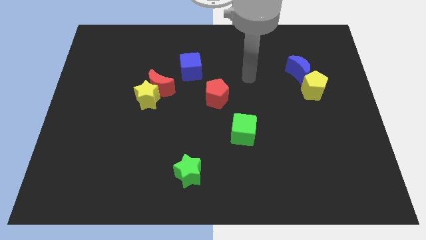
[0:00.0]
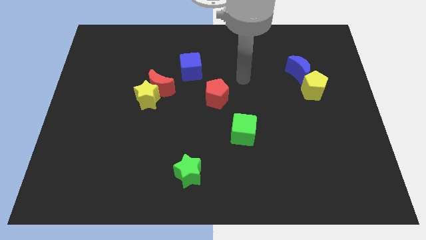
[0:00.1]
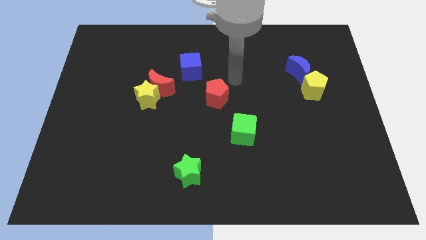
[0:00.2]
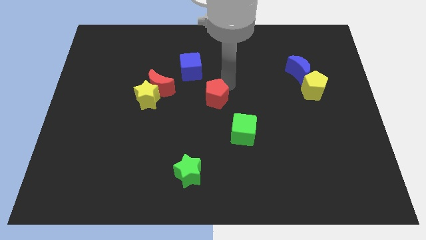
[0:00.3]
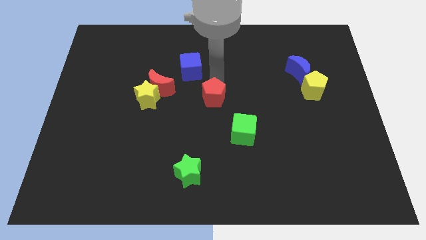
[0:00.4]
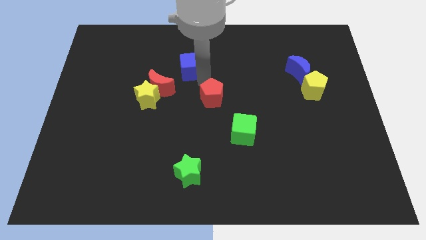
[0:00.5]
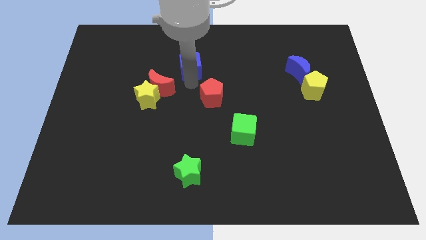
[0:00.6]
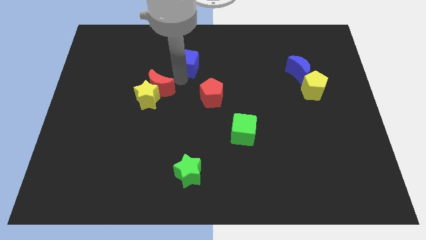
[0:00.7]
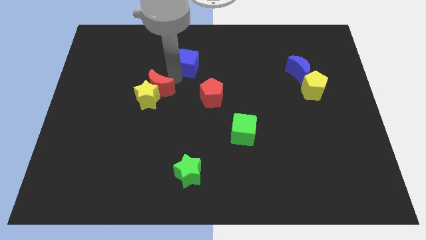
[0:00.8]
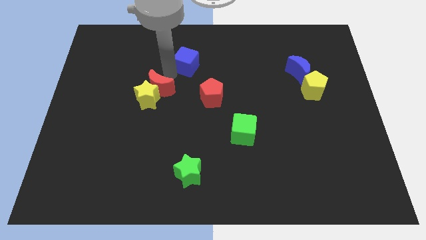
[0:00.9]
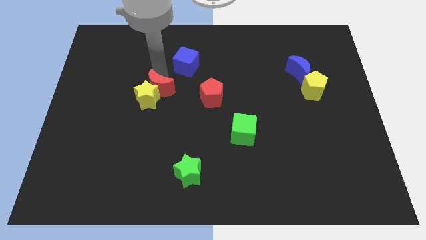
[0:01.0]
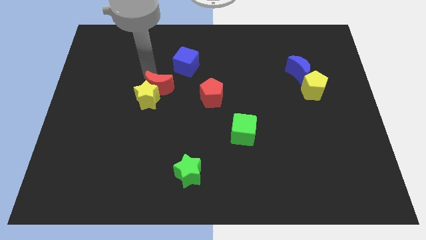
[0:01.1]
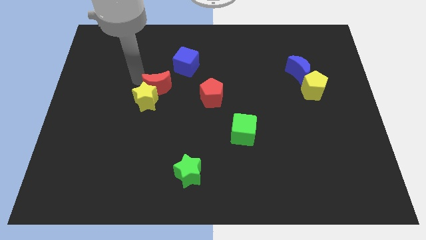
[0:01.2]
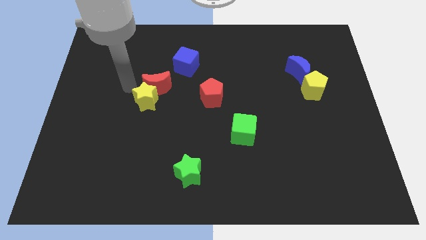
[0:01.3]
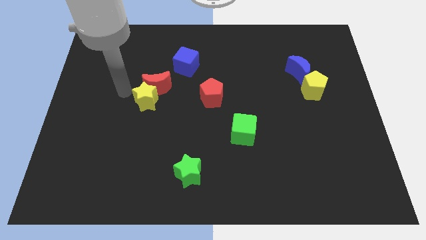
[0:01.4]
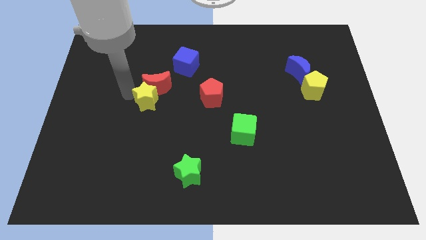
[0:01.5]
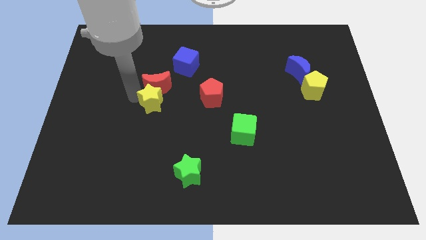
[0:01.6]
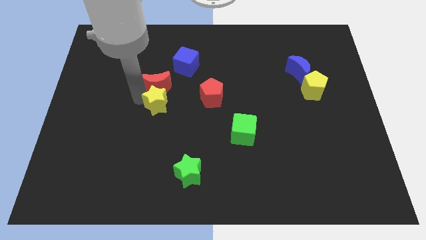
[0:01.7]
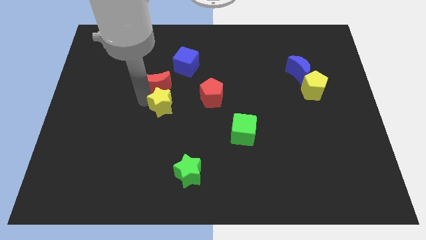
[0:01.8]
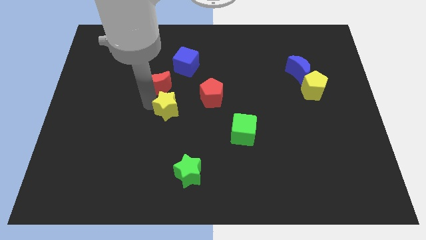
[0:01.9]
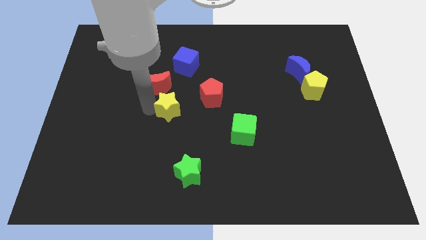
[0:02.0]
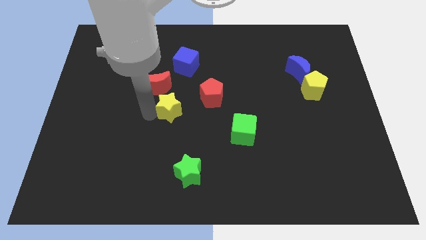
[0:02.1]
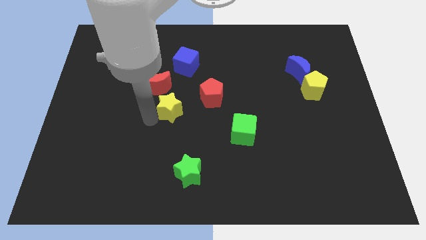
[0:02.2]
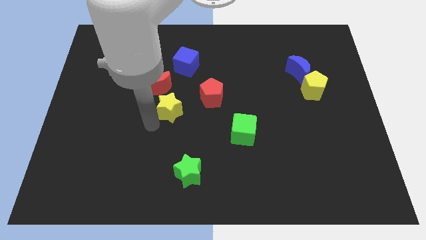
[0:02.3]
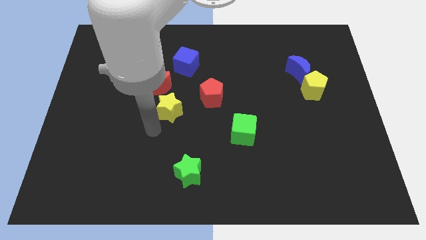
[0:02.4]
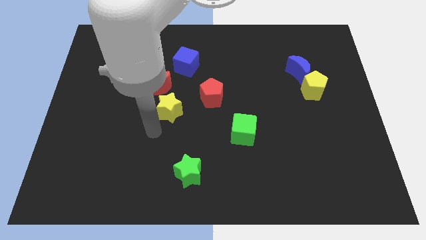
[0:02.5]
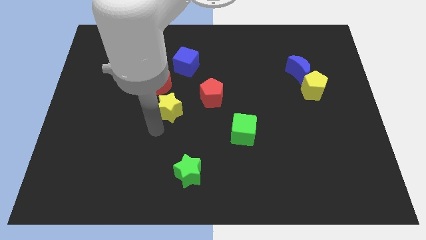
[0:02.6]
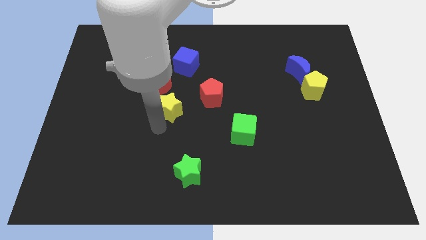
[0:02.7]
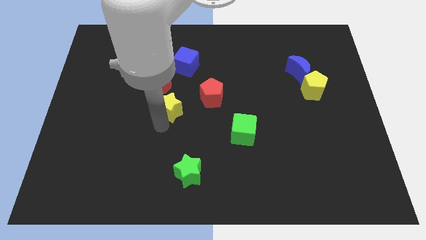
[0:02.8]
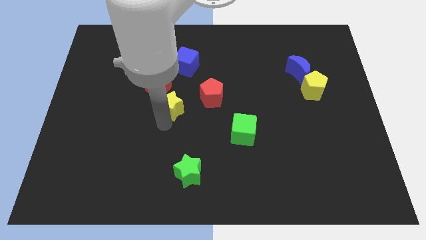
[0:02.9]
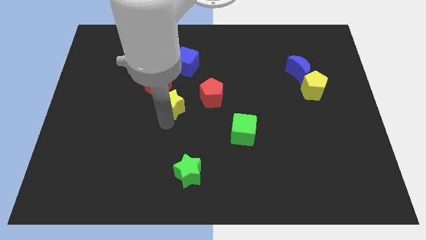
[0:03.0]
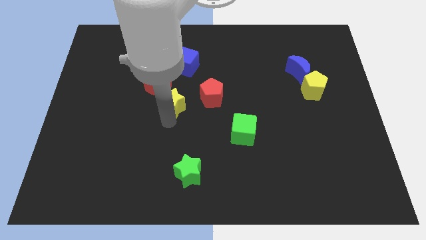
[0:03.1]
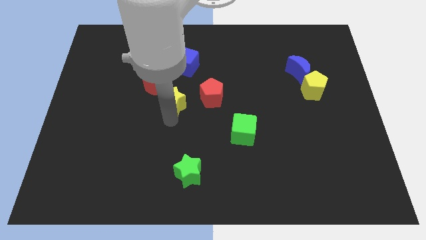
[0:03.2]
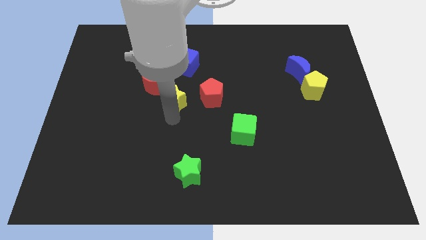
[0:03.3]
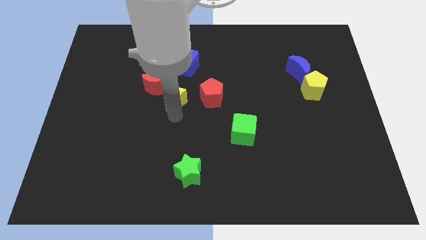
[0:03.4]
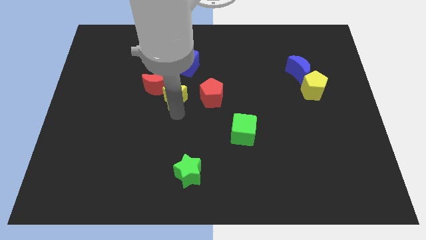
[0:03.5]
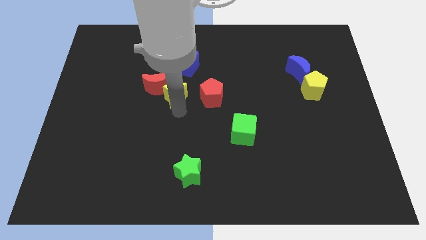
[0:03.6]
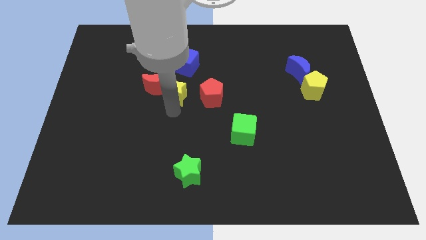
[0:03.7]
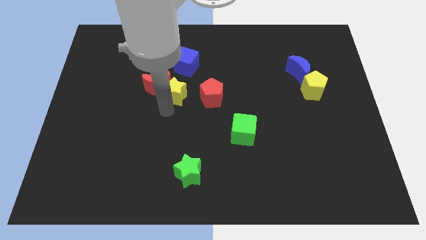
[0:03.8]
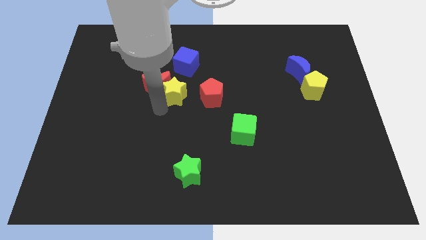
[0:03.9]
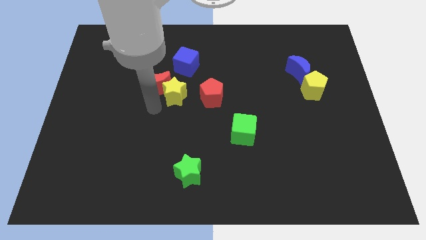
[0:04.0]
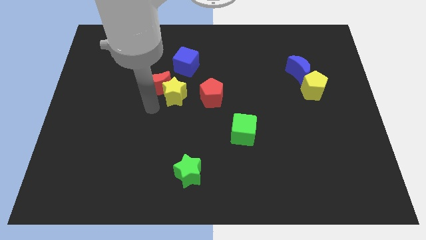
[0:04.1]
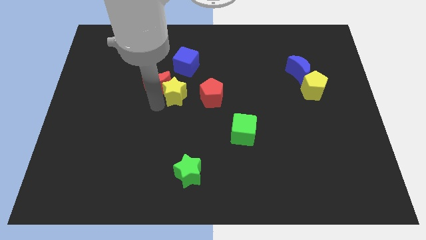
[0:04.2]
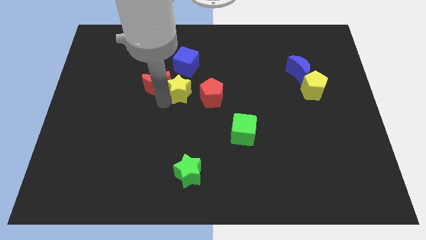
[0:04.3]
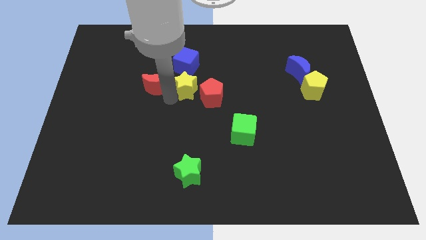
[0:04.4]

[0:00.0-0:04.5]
slightly move the yellow star up and right diagonally

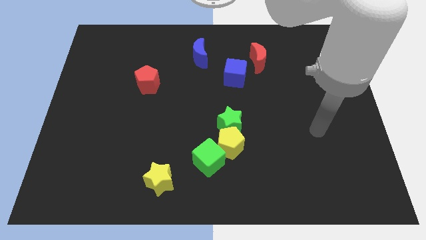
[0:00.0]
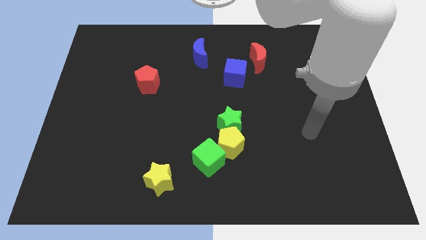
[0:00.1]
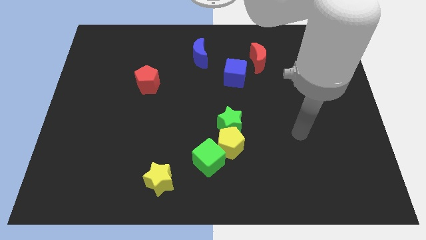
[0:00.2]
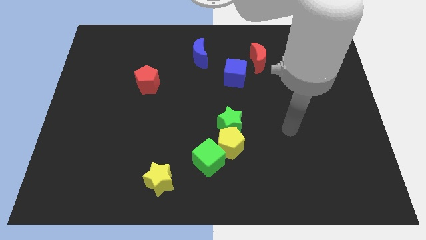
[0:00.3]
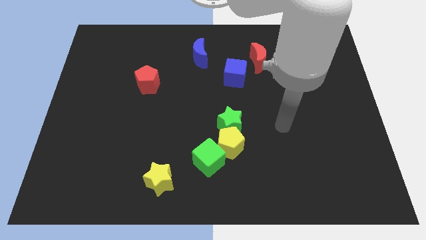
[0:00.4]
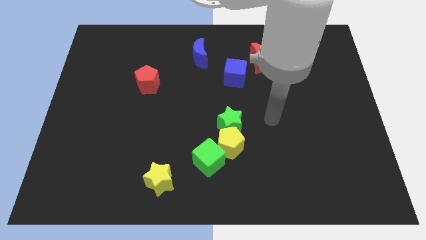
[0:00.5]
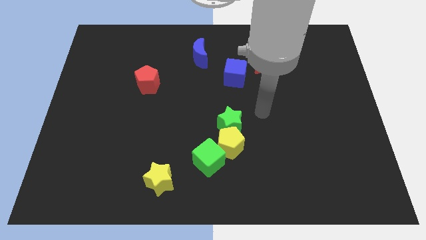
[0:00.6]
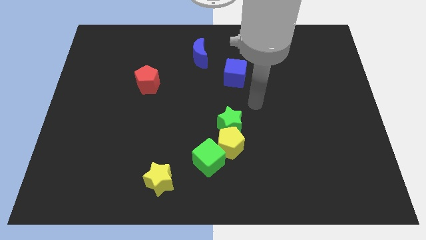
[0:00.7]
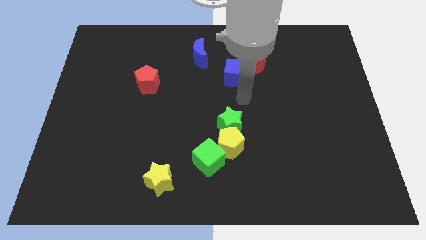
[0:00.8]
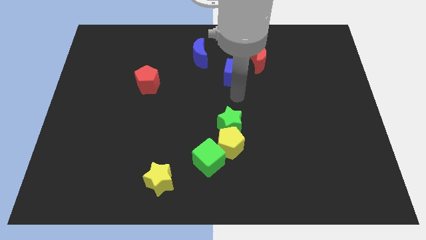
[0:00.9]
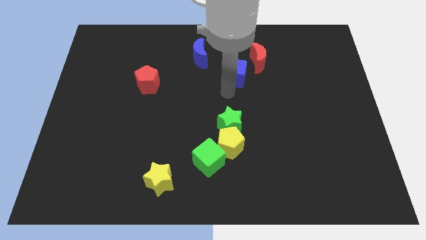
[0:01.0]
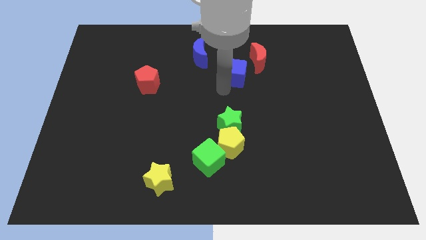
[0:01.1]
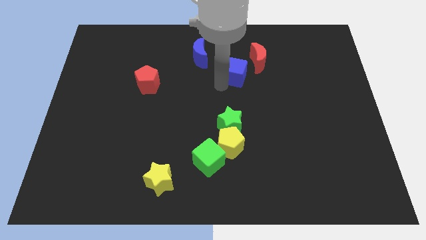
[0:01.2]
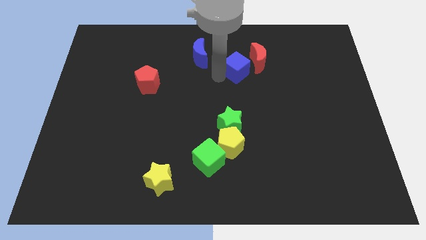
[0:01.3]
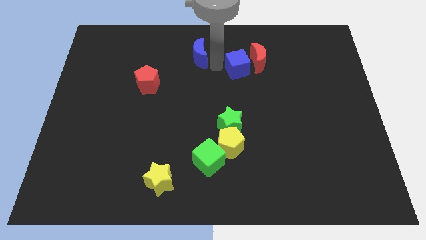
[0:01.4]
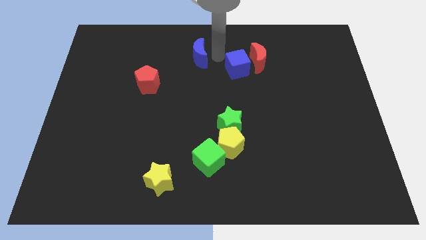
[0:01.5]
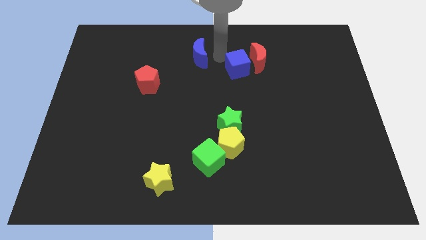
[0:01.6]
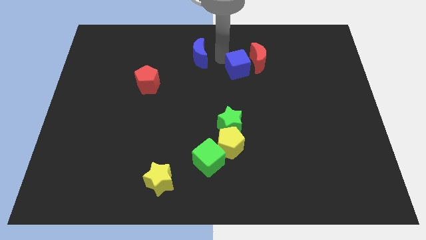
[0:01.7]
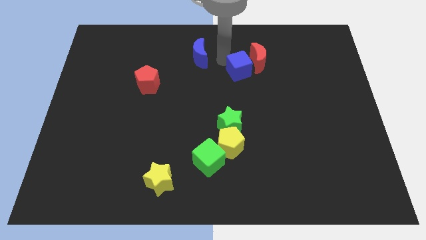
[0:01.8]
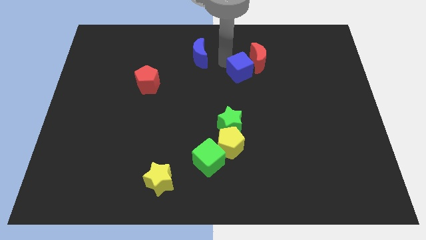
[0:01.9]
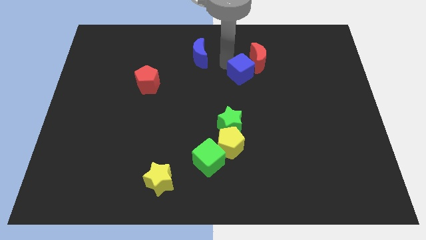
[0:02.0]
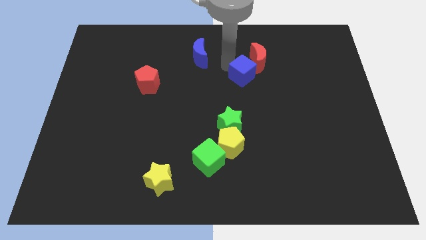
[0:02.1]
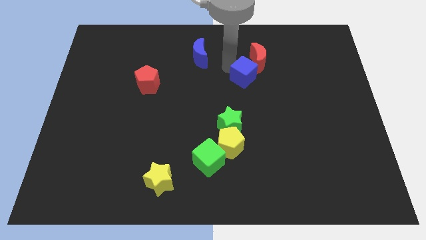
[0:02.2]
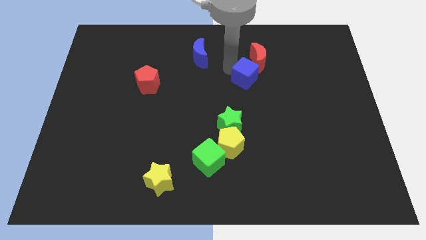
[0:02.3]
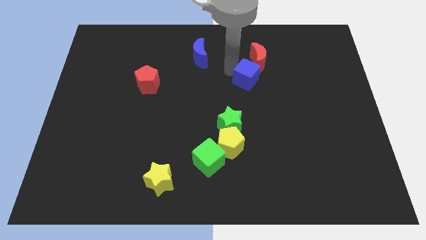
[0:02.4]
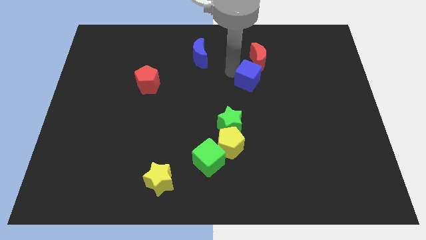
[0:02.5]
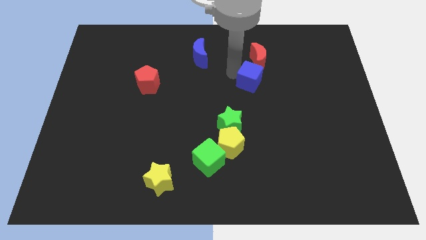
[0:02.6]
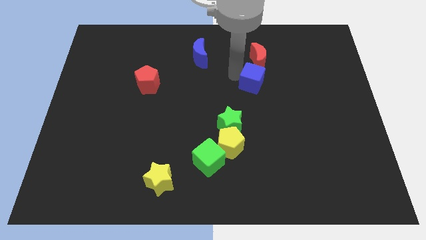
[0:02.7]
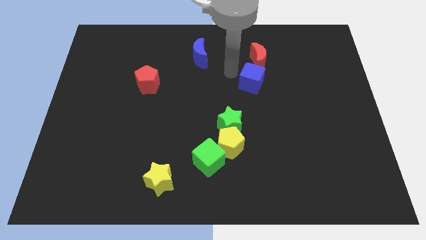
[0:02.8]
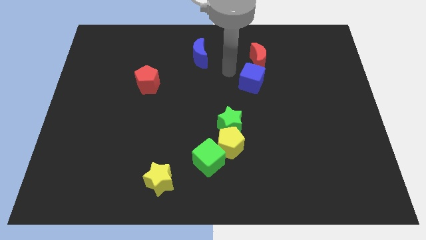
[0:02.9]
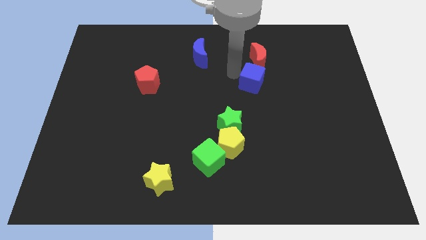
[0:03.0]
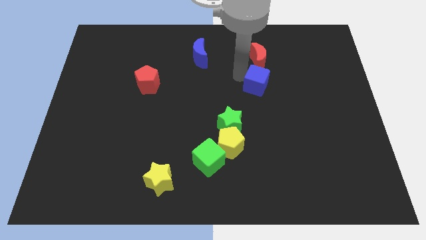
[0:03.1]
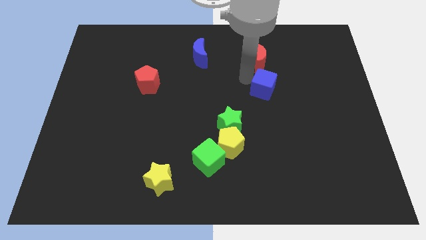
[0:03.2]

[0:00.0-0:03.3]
slightly push the blue cube diagonally downwards and to the right

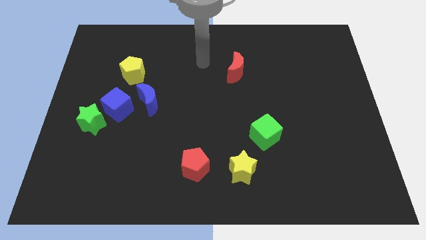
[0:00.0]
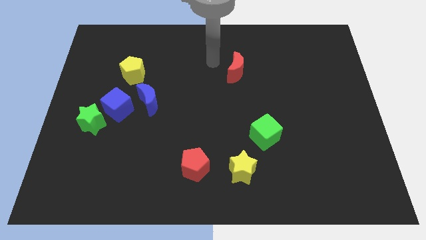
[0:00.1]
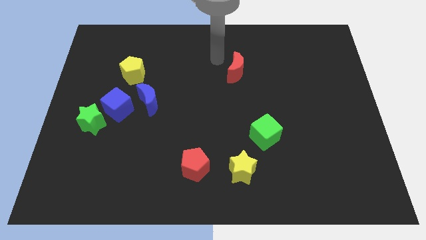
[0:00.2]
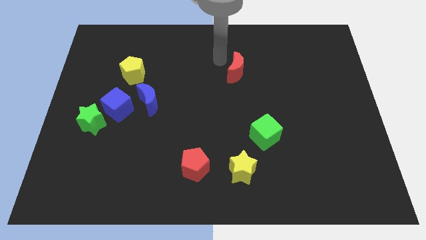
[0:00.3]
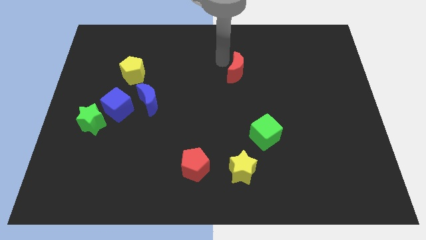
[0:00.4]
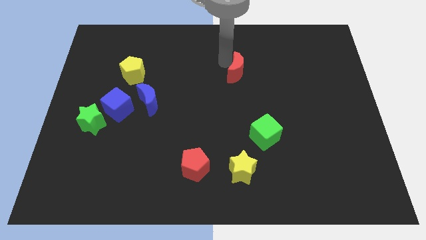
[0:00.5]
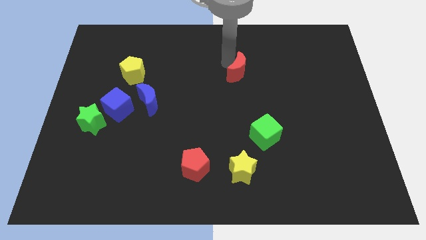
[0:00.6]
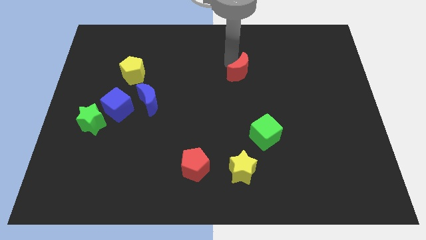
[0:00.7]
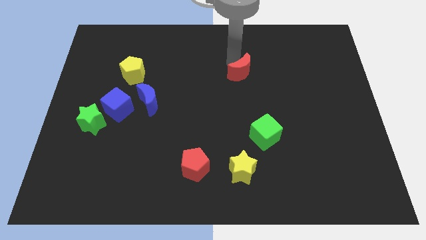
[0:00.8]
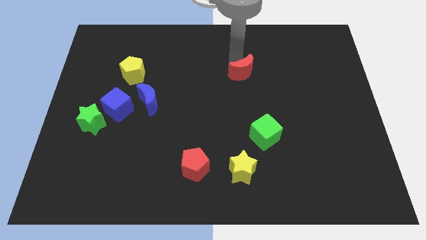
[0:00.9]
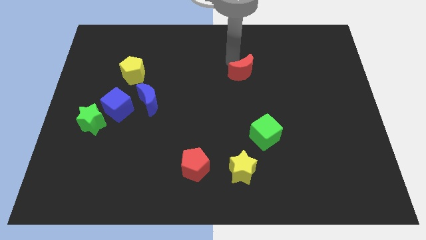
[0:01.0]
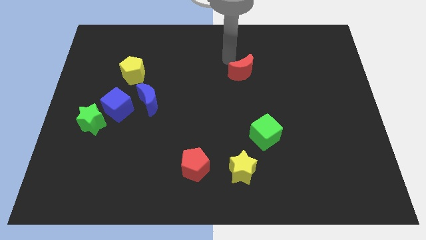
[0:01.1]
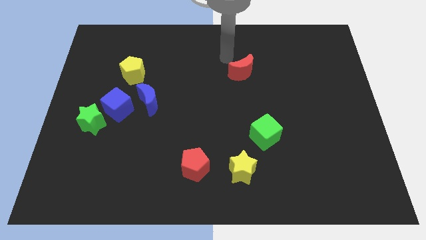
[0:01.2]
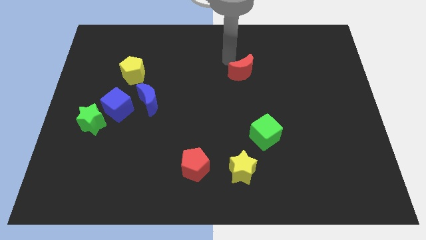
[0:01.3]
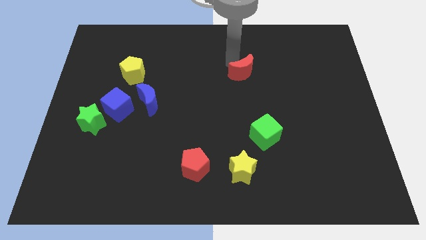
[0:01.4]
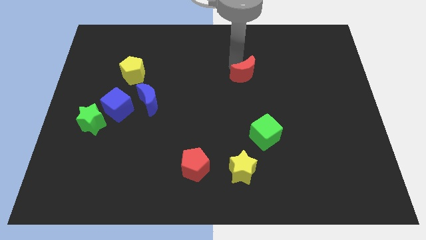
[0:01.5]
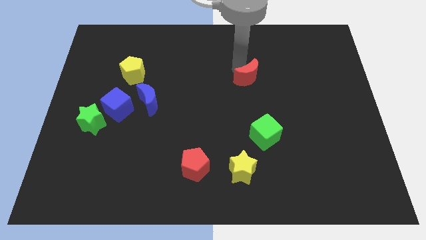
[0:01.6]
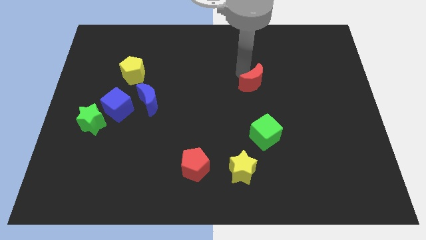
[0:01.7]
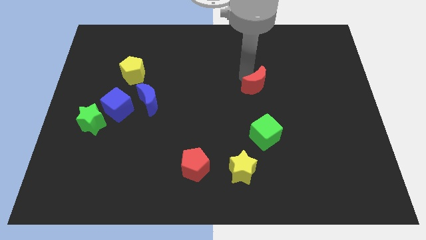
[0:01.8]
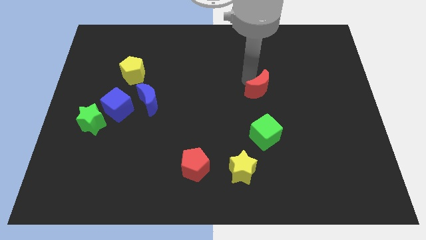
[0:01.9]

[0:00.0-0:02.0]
push the red moon a little bit downwards and right
